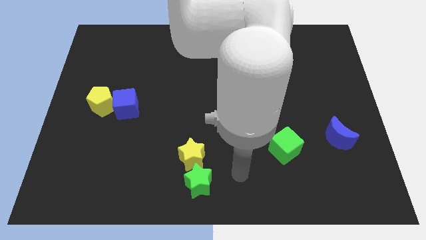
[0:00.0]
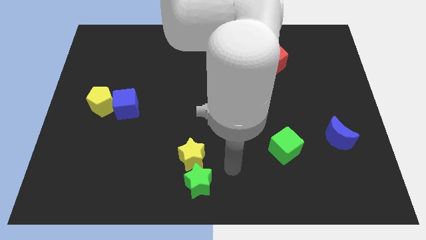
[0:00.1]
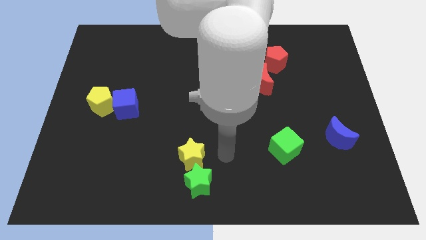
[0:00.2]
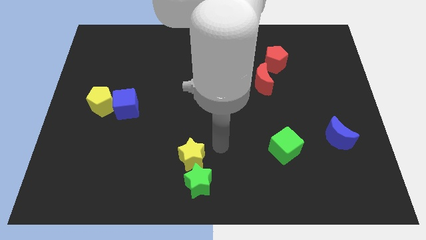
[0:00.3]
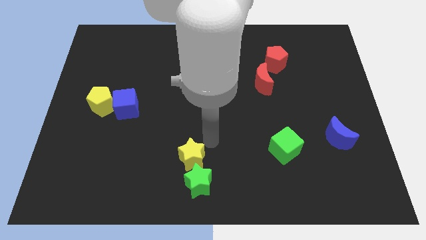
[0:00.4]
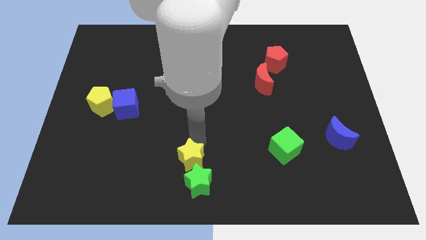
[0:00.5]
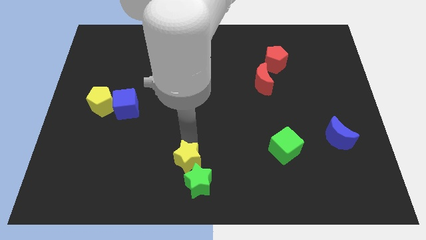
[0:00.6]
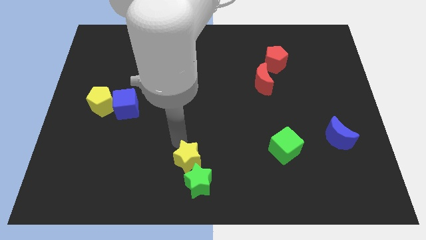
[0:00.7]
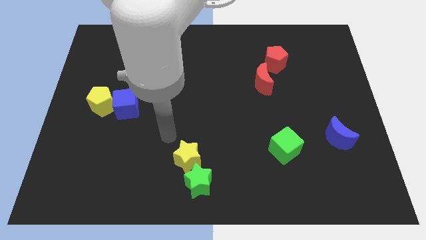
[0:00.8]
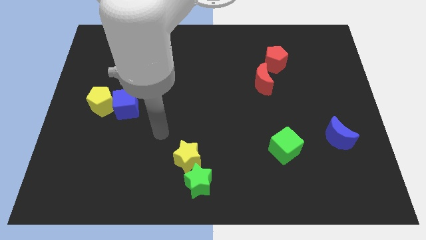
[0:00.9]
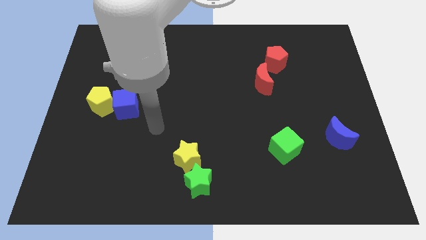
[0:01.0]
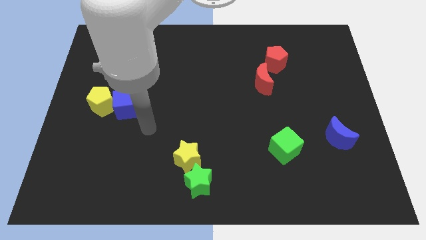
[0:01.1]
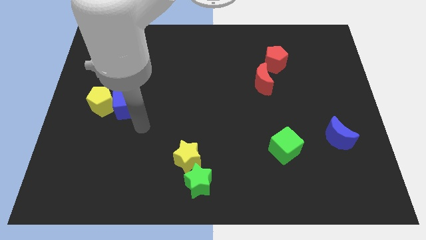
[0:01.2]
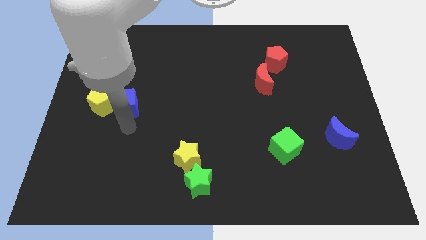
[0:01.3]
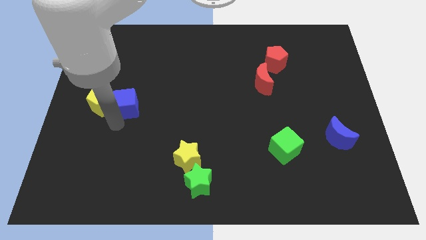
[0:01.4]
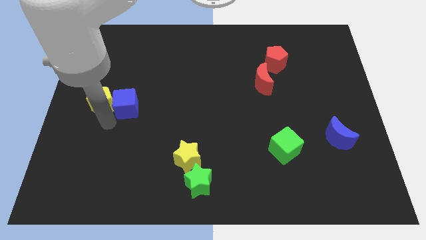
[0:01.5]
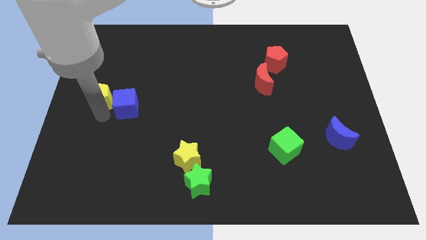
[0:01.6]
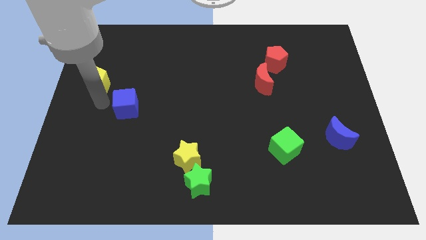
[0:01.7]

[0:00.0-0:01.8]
pull the blue cube apart from the yellow pentagon

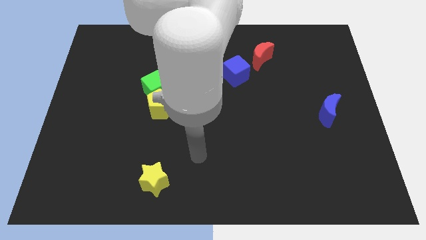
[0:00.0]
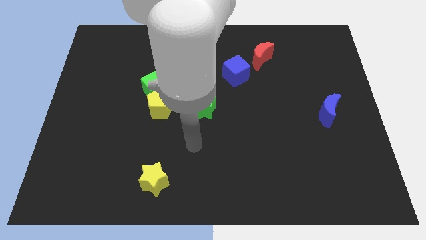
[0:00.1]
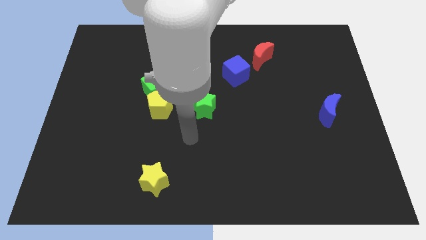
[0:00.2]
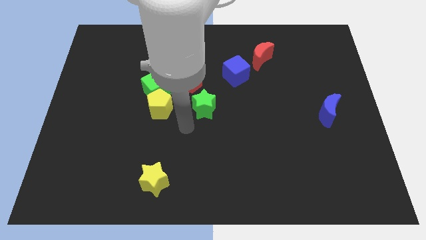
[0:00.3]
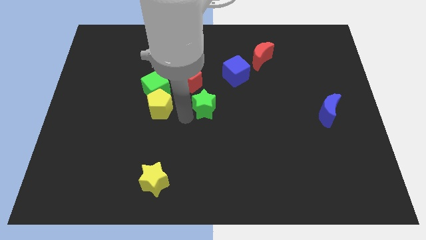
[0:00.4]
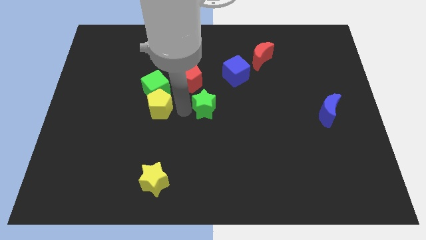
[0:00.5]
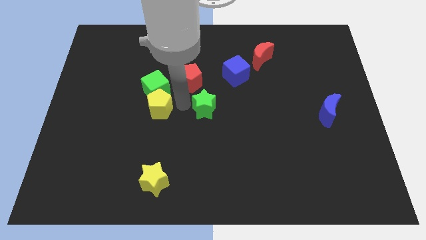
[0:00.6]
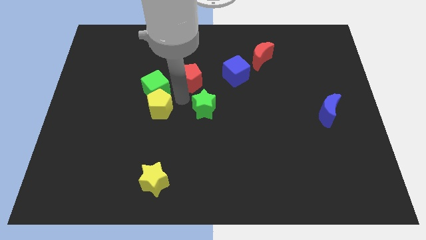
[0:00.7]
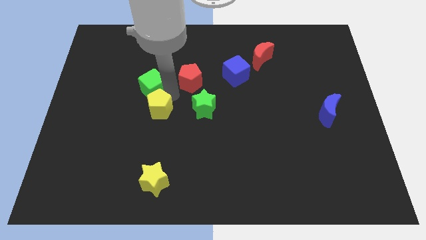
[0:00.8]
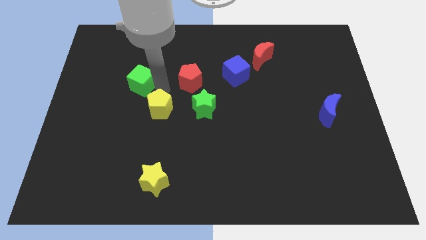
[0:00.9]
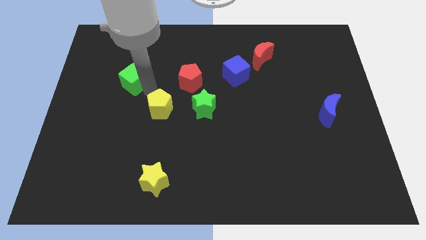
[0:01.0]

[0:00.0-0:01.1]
pull the yellow pentagon apart from the green cube

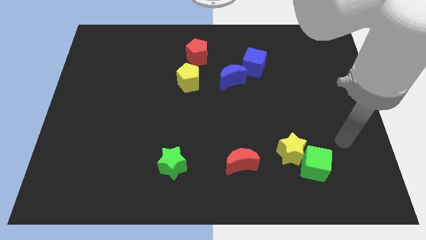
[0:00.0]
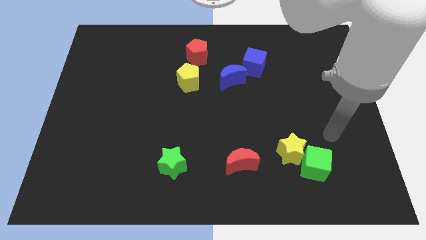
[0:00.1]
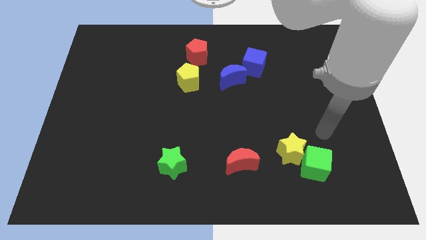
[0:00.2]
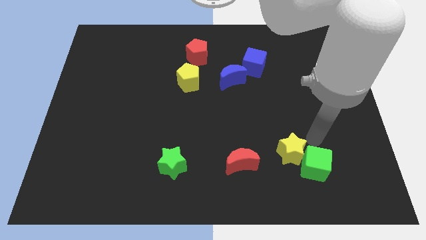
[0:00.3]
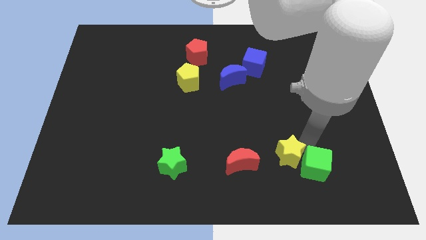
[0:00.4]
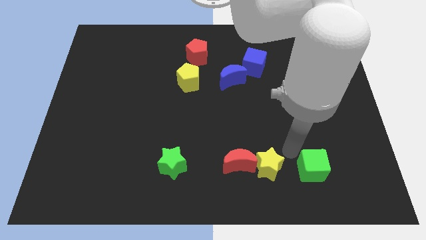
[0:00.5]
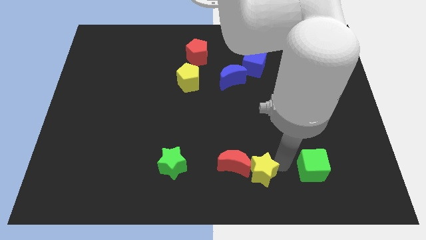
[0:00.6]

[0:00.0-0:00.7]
separate the green cube from the yellow star

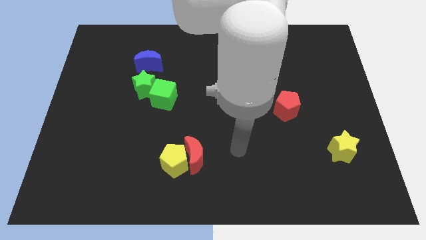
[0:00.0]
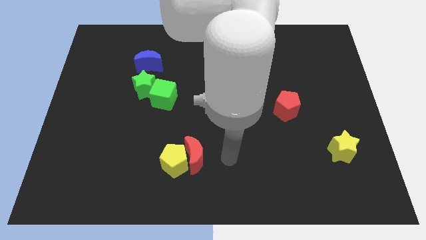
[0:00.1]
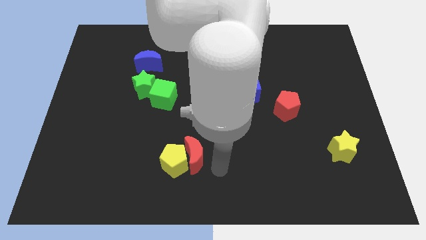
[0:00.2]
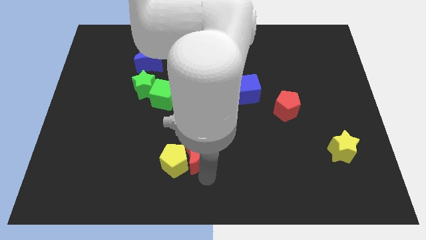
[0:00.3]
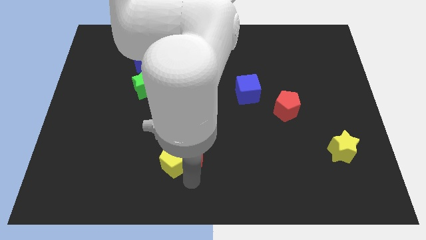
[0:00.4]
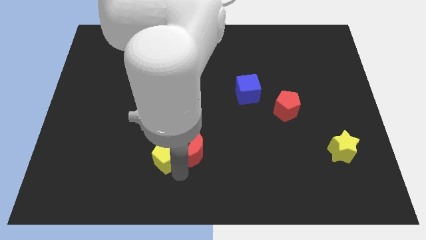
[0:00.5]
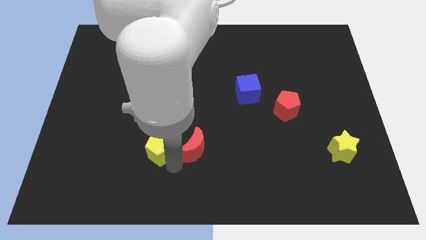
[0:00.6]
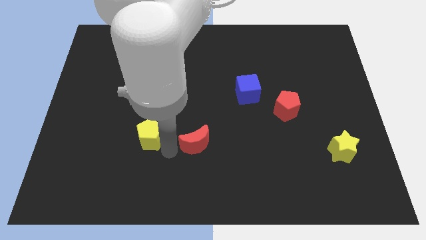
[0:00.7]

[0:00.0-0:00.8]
separate the red moon from the yellow pentagon

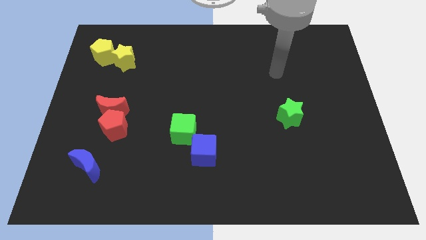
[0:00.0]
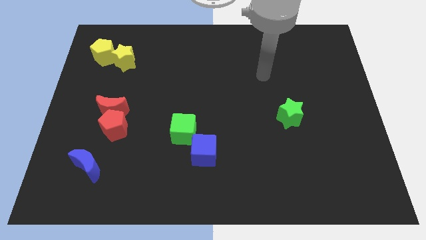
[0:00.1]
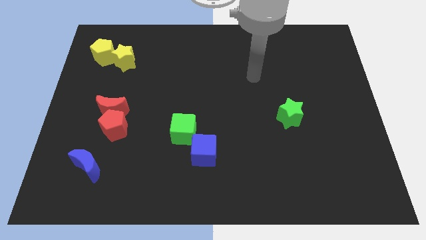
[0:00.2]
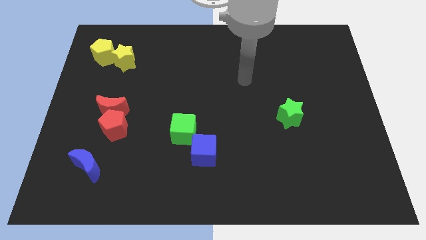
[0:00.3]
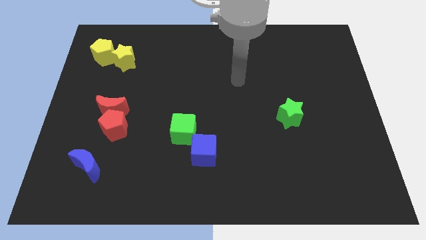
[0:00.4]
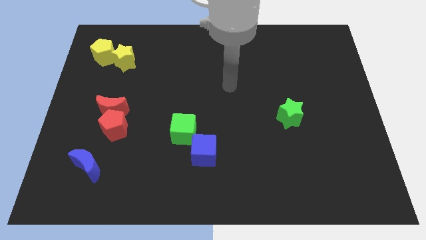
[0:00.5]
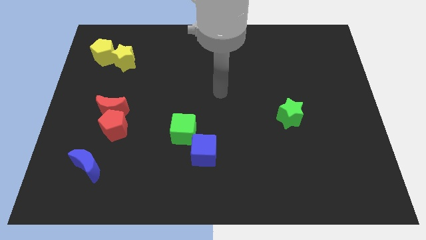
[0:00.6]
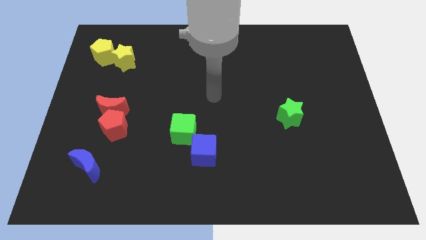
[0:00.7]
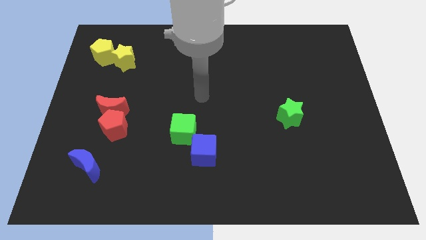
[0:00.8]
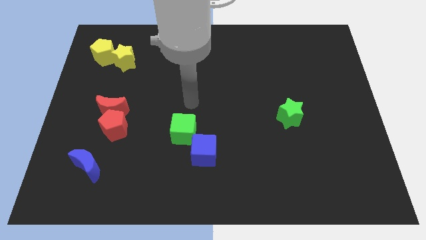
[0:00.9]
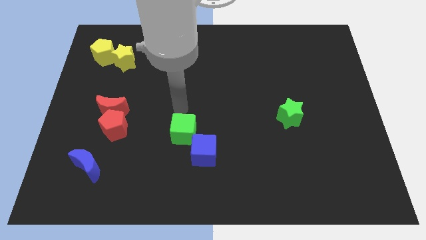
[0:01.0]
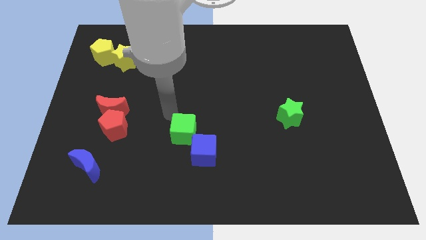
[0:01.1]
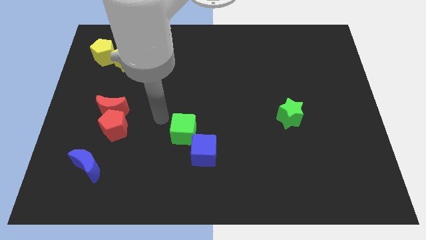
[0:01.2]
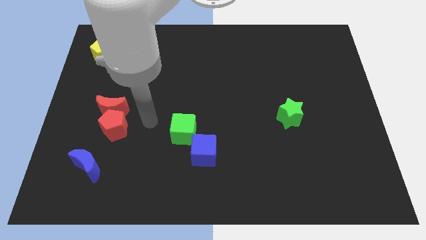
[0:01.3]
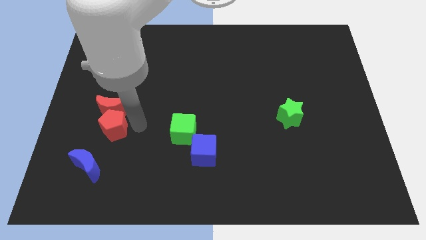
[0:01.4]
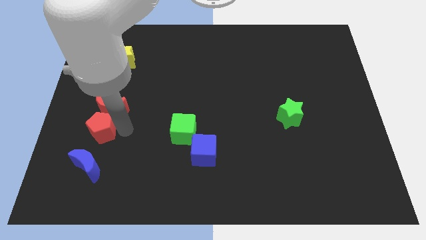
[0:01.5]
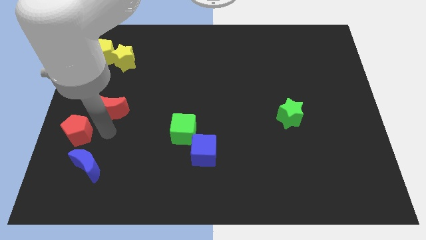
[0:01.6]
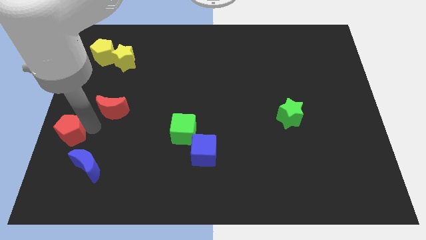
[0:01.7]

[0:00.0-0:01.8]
separate the red moon from the red pentagon

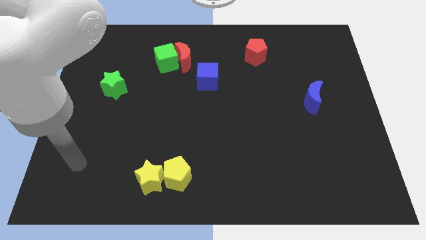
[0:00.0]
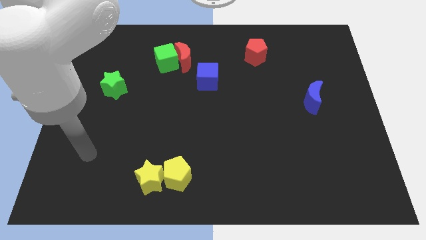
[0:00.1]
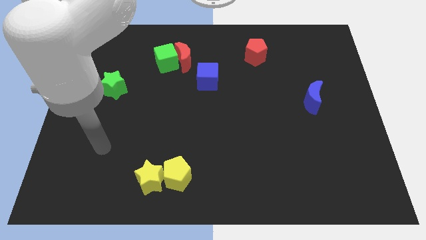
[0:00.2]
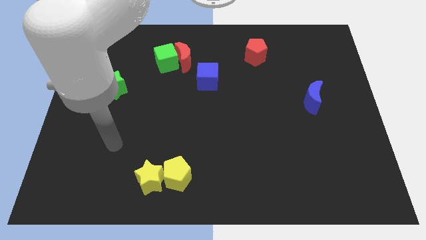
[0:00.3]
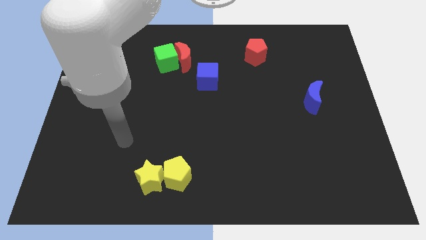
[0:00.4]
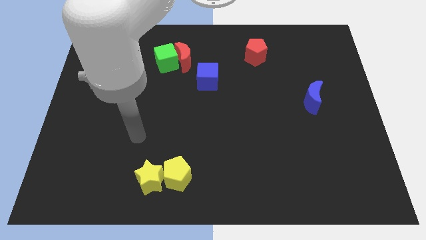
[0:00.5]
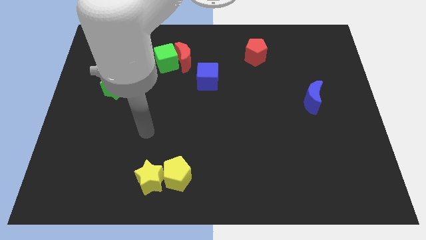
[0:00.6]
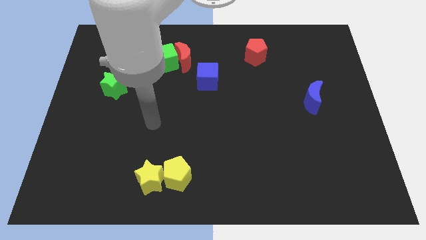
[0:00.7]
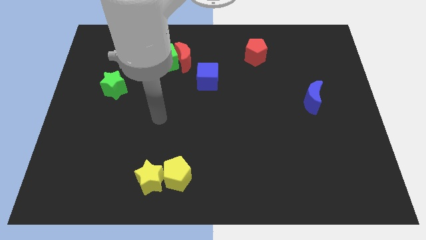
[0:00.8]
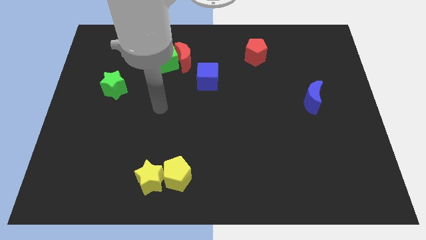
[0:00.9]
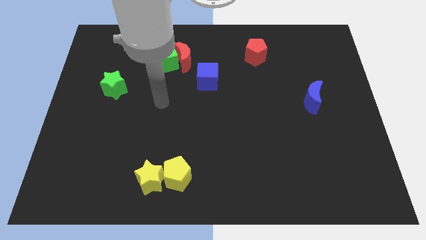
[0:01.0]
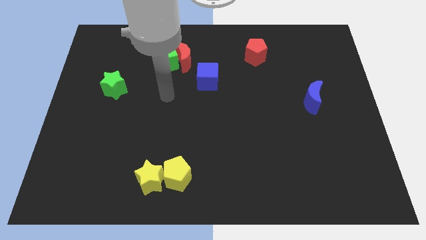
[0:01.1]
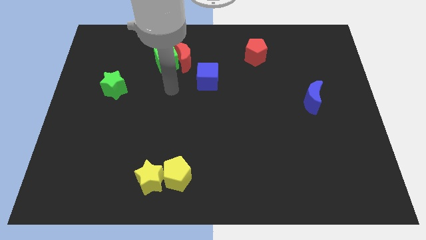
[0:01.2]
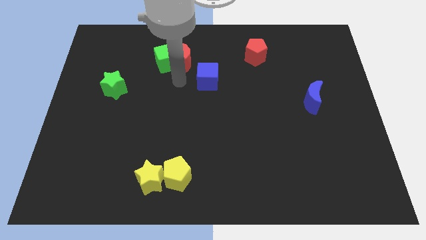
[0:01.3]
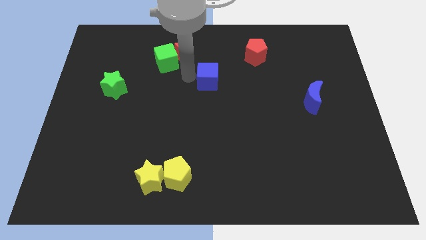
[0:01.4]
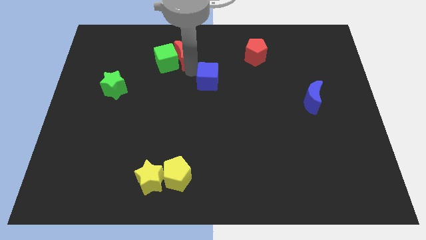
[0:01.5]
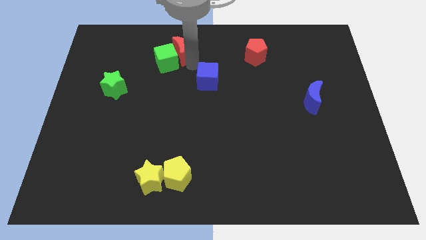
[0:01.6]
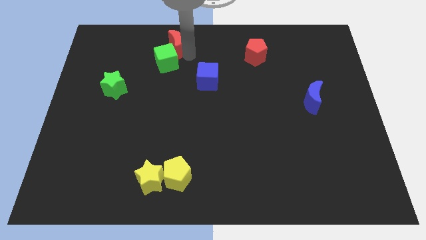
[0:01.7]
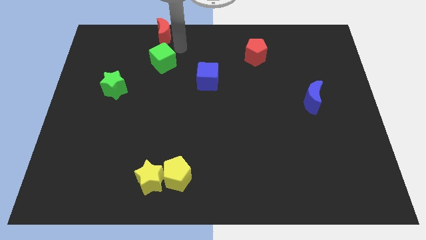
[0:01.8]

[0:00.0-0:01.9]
pull the green cube apart from the red moon

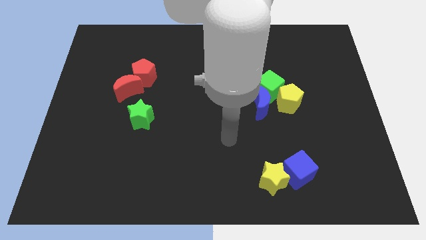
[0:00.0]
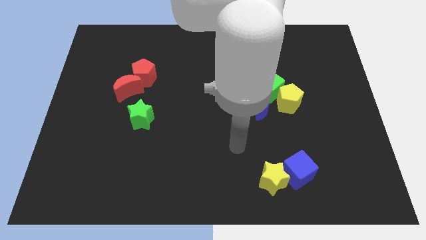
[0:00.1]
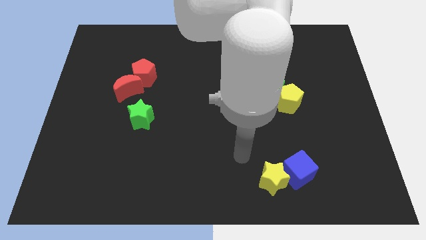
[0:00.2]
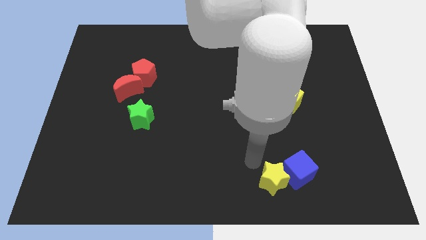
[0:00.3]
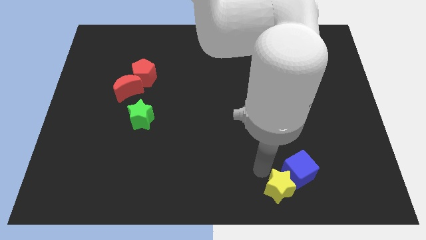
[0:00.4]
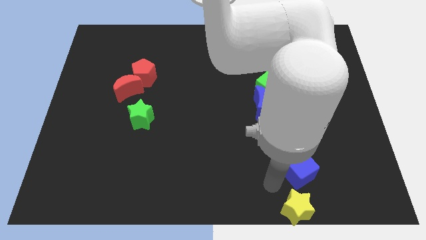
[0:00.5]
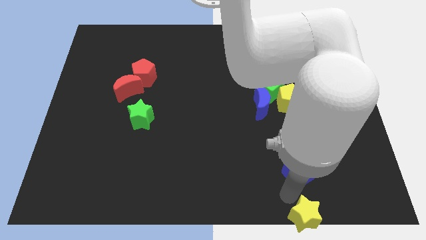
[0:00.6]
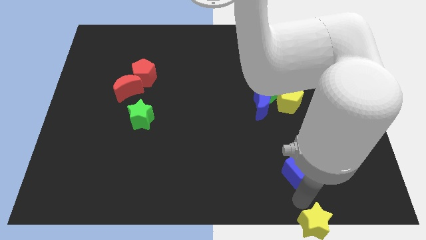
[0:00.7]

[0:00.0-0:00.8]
separate the blue cube from the yellow star

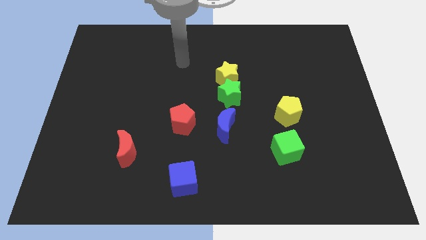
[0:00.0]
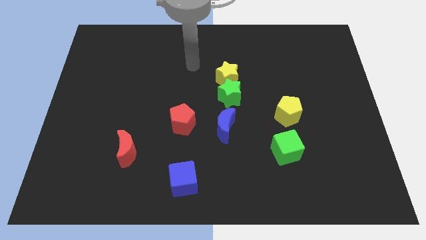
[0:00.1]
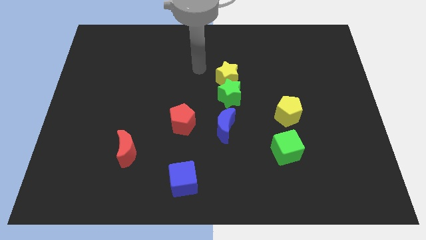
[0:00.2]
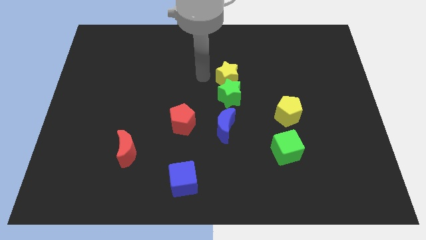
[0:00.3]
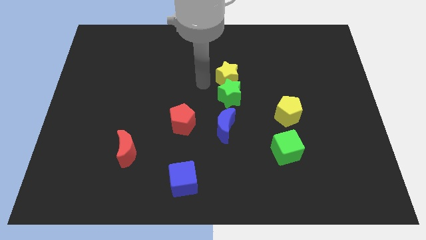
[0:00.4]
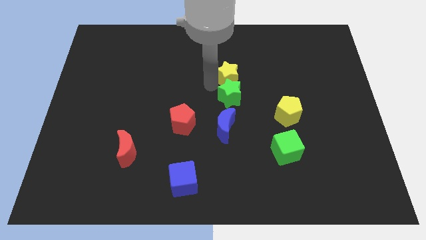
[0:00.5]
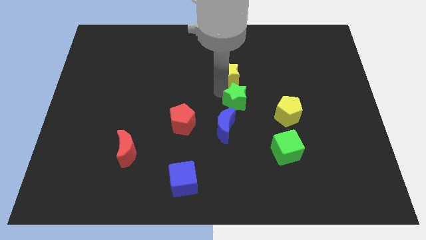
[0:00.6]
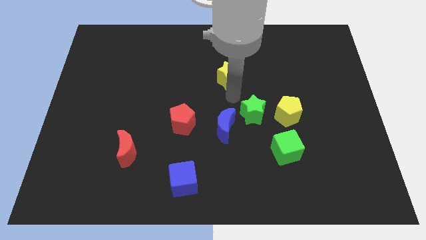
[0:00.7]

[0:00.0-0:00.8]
pull the yellow star apart from the green star
